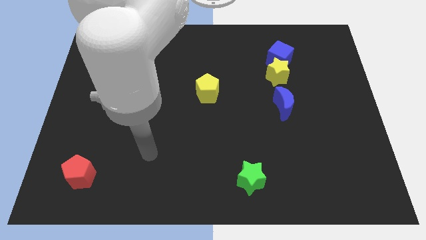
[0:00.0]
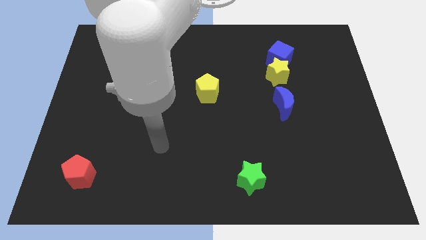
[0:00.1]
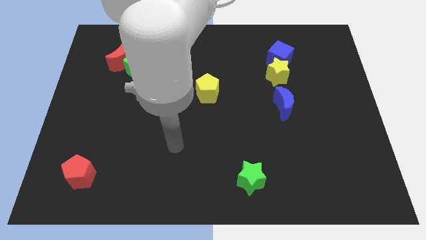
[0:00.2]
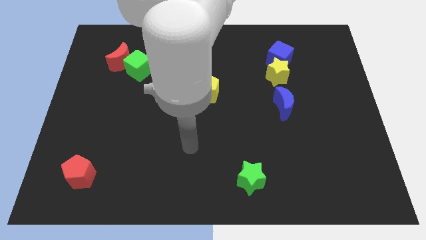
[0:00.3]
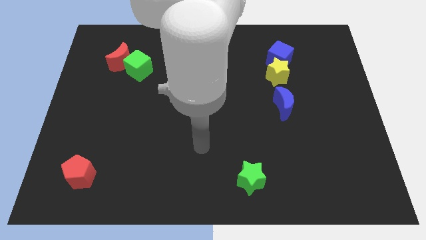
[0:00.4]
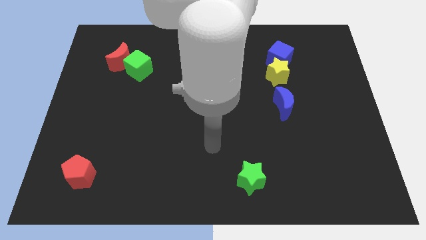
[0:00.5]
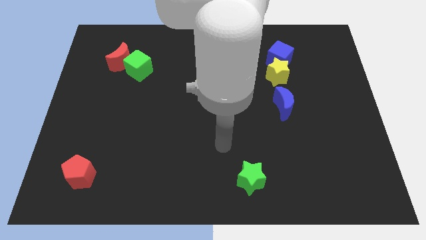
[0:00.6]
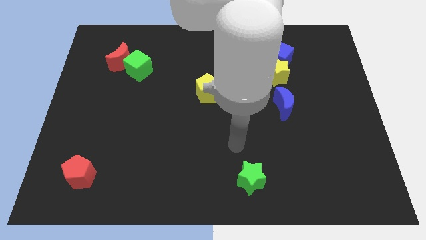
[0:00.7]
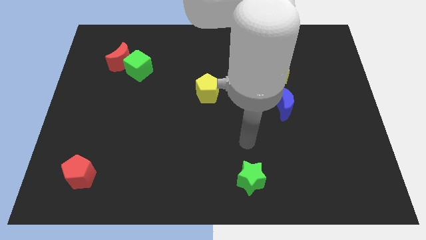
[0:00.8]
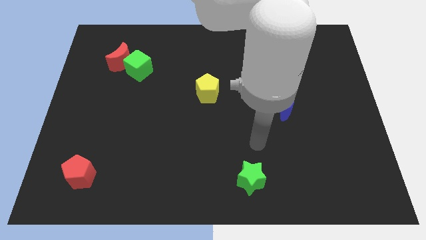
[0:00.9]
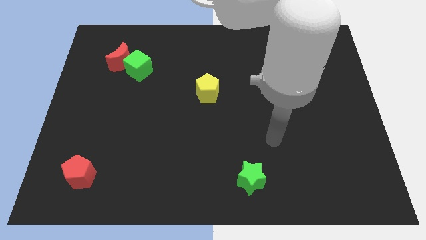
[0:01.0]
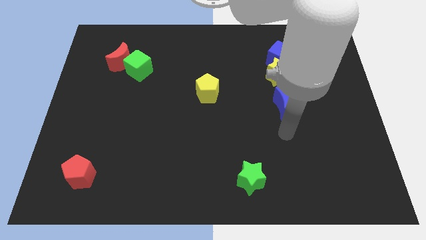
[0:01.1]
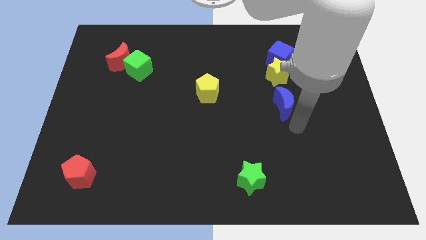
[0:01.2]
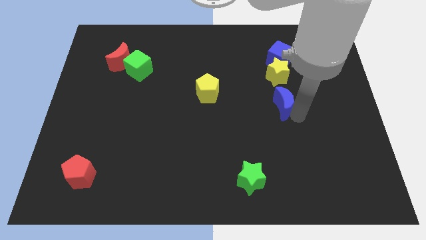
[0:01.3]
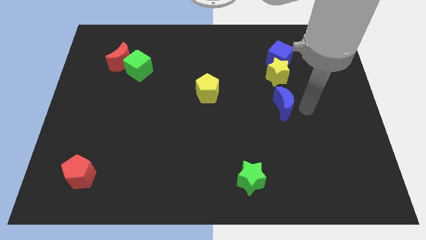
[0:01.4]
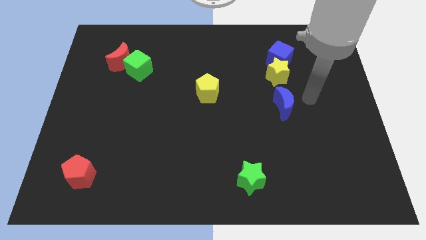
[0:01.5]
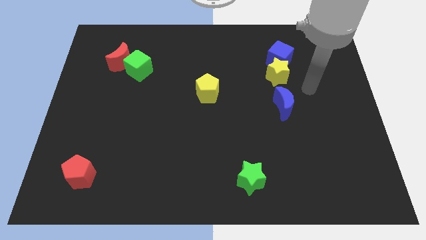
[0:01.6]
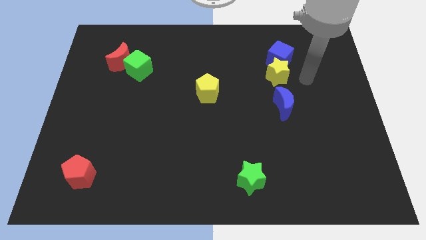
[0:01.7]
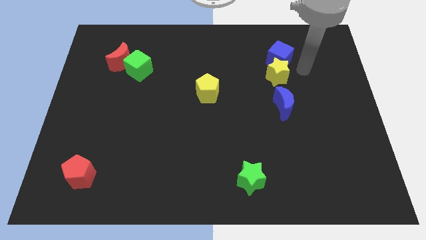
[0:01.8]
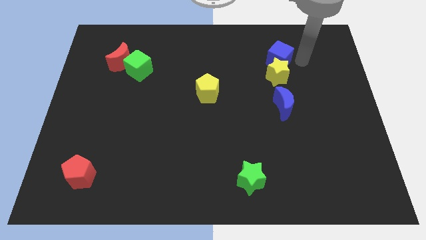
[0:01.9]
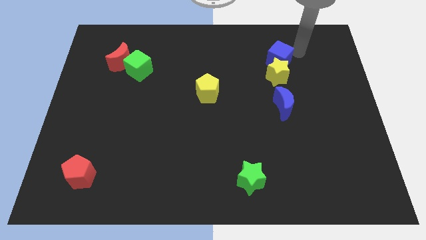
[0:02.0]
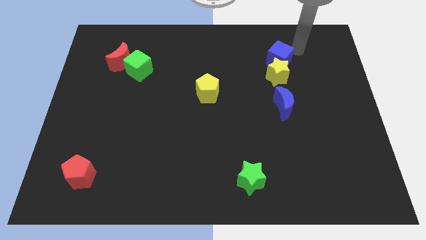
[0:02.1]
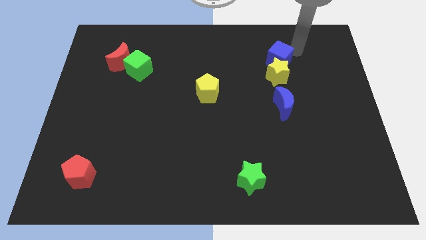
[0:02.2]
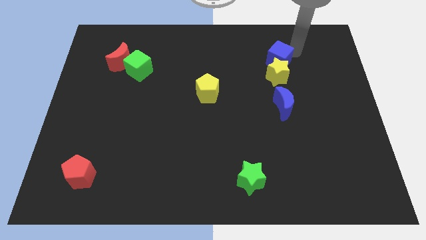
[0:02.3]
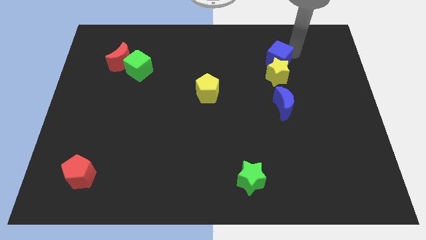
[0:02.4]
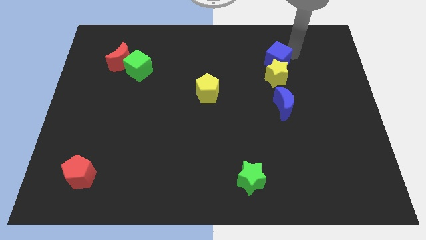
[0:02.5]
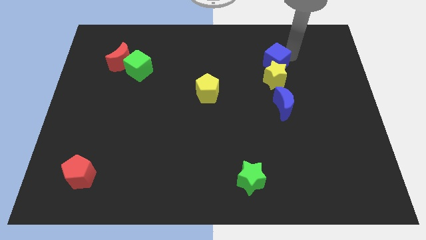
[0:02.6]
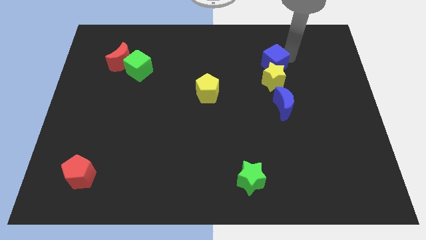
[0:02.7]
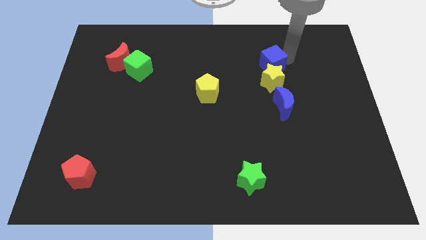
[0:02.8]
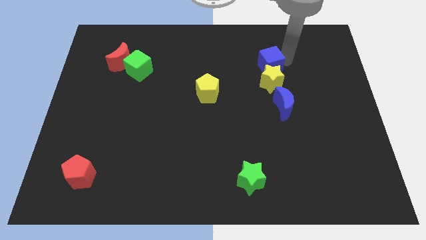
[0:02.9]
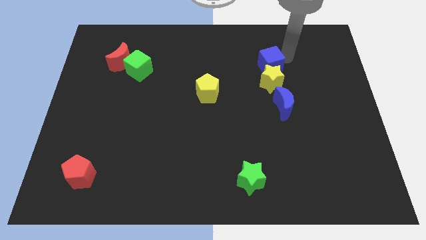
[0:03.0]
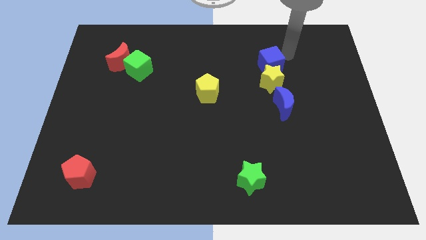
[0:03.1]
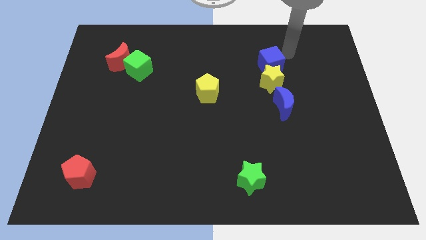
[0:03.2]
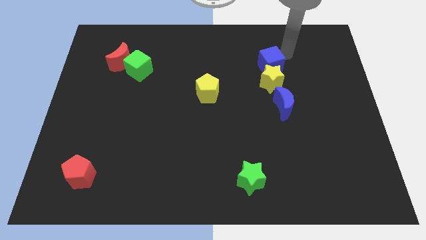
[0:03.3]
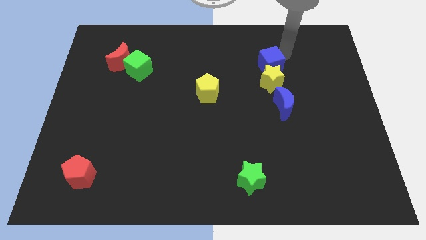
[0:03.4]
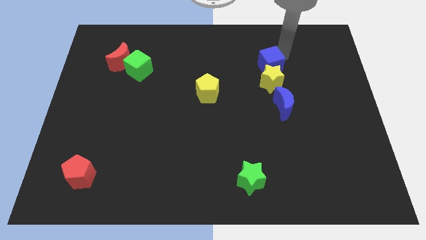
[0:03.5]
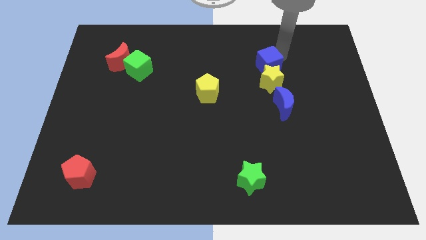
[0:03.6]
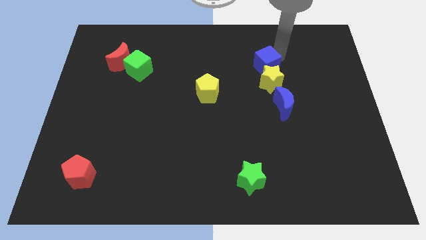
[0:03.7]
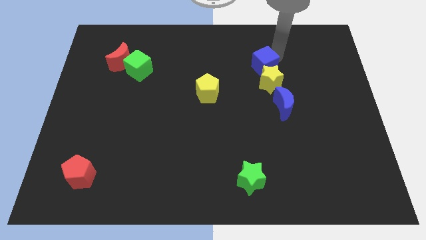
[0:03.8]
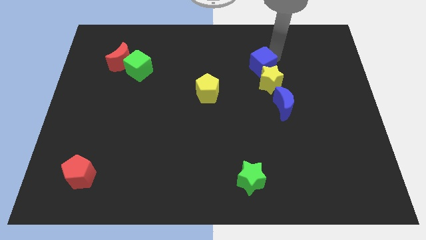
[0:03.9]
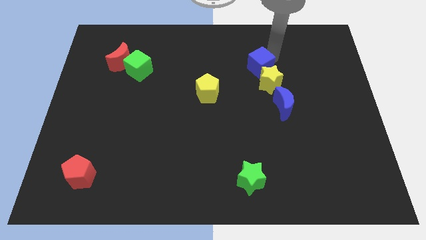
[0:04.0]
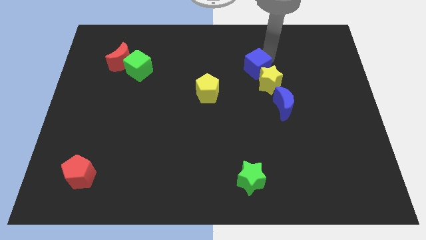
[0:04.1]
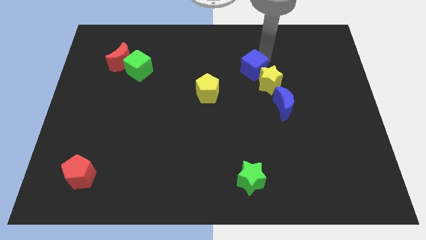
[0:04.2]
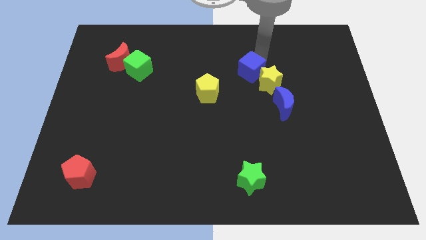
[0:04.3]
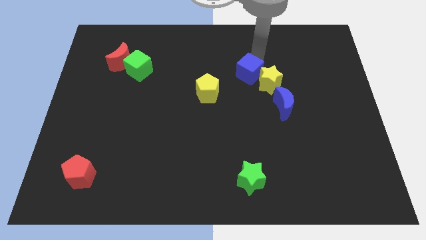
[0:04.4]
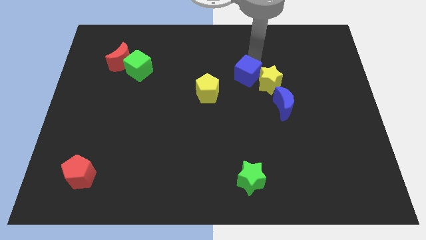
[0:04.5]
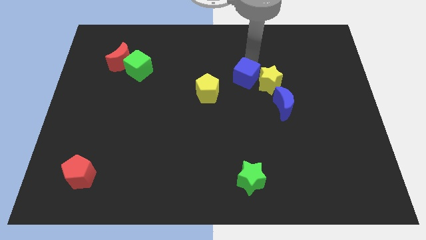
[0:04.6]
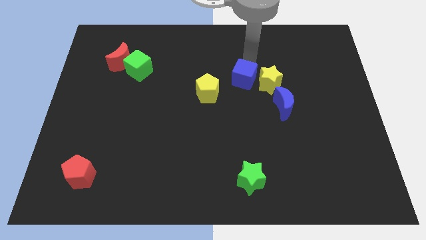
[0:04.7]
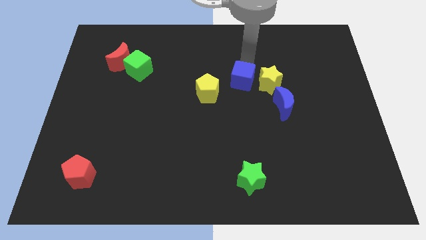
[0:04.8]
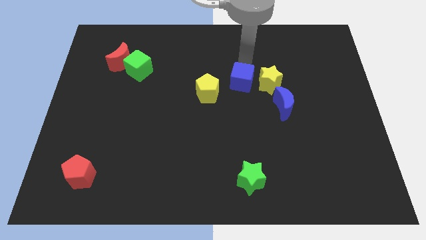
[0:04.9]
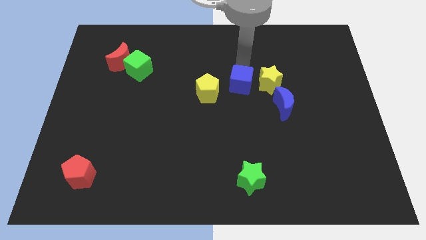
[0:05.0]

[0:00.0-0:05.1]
push the blue cube diagonally down and to the left of the yellow star

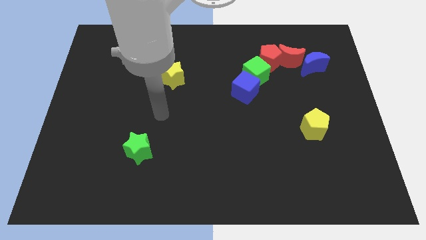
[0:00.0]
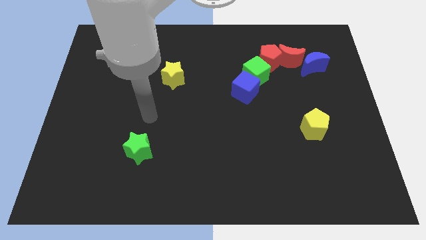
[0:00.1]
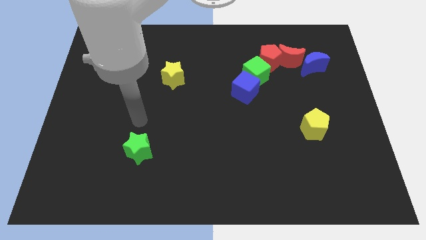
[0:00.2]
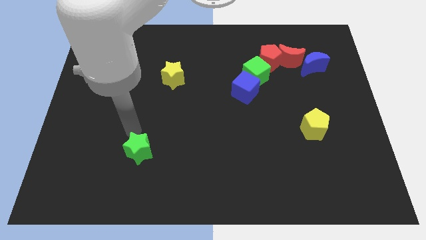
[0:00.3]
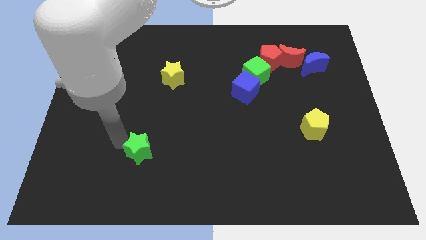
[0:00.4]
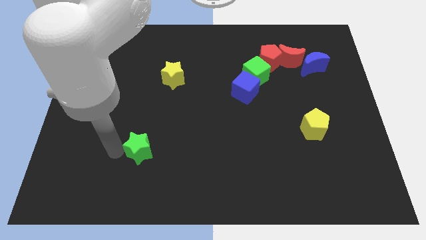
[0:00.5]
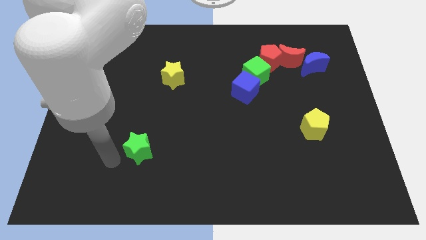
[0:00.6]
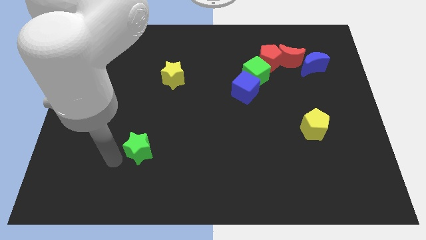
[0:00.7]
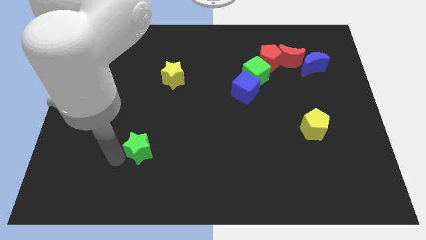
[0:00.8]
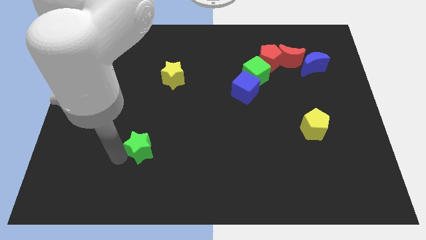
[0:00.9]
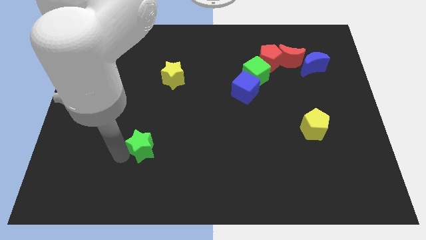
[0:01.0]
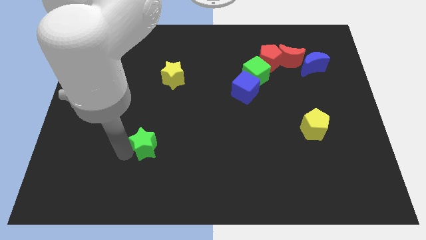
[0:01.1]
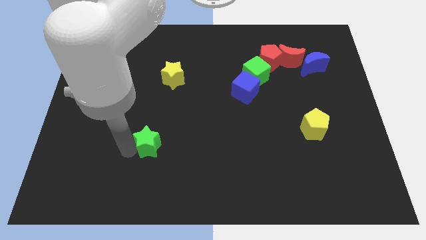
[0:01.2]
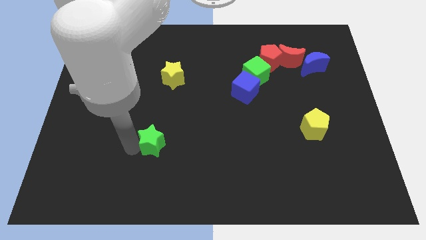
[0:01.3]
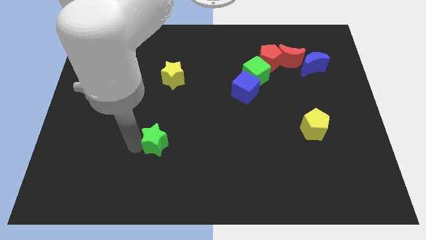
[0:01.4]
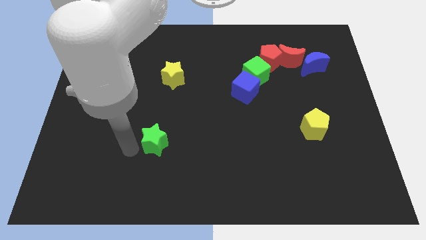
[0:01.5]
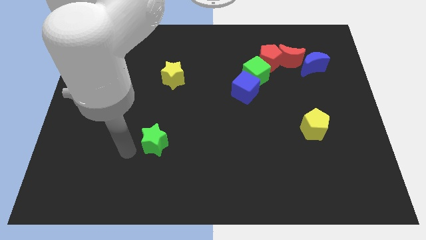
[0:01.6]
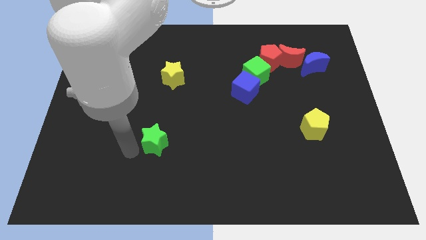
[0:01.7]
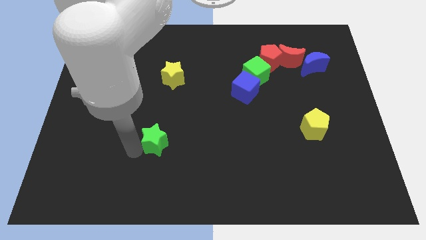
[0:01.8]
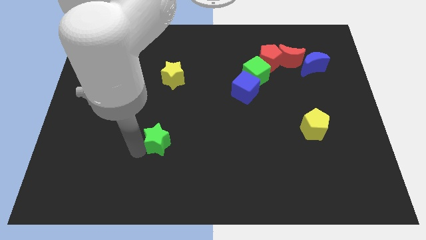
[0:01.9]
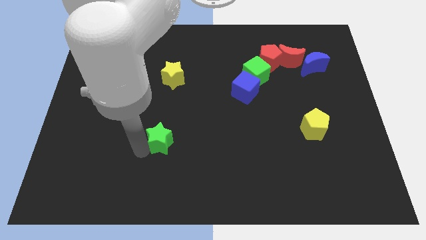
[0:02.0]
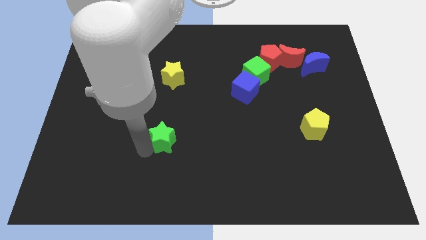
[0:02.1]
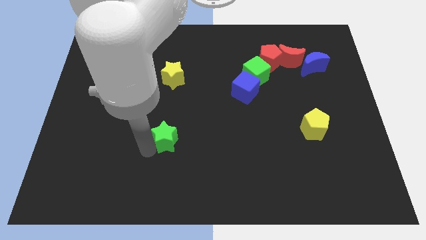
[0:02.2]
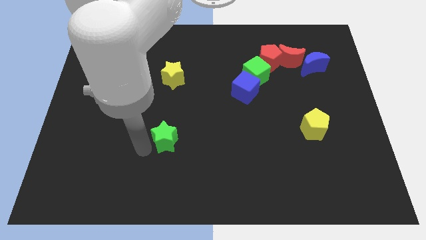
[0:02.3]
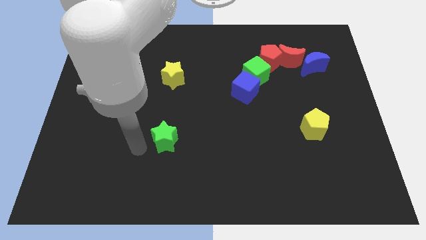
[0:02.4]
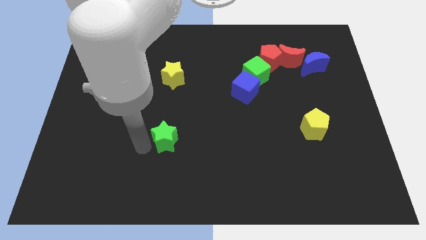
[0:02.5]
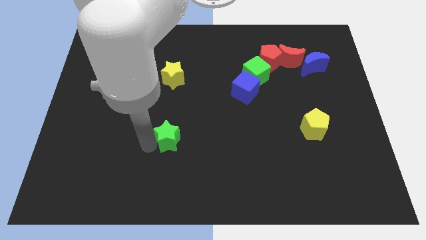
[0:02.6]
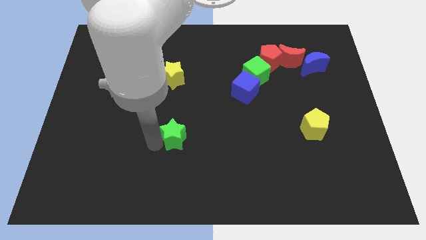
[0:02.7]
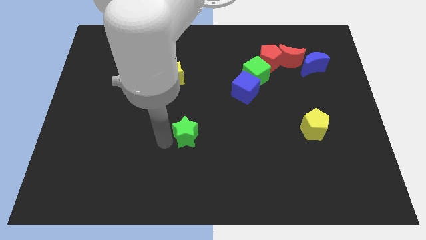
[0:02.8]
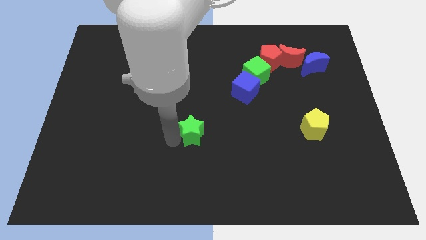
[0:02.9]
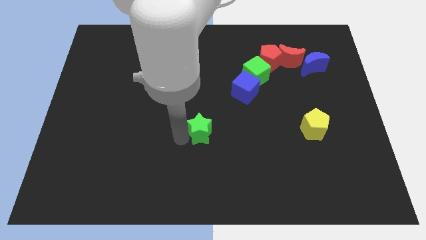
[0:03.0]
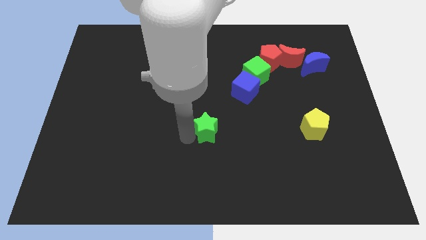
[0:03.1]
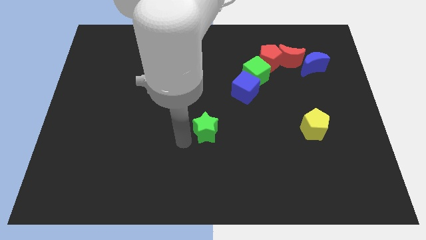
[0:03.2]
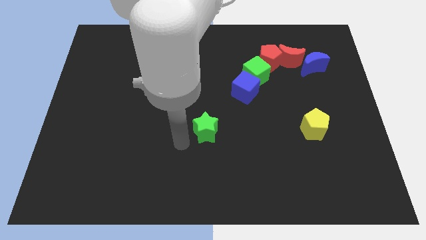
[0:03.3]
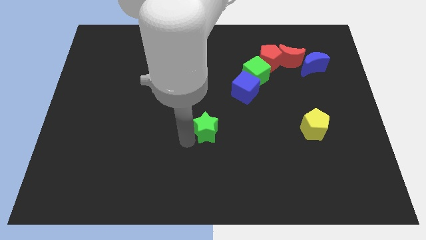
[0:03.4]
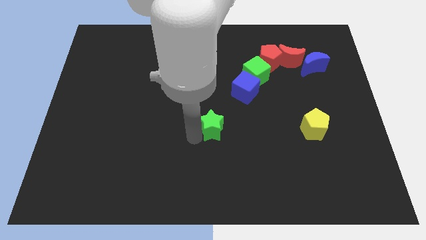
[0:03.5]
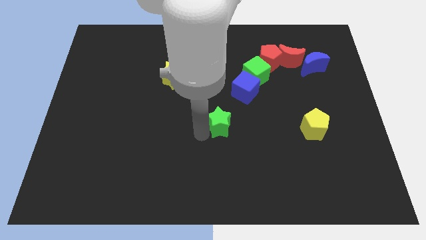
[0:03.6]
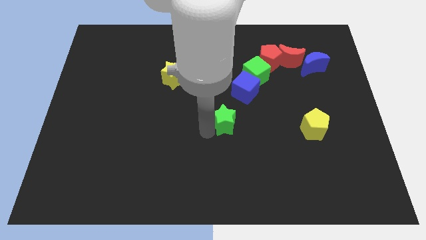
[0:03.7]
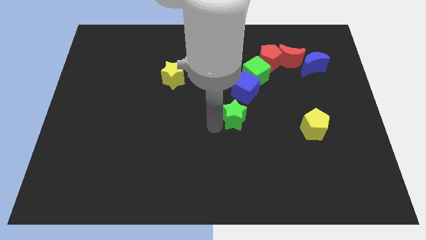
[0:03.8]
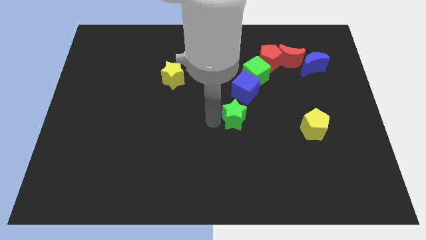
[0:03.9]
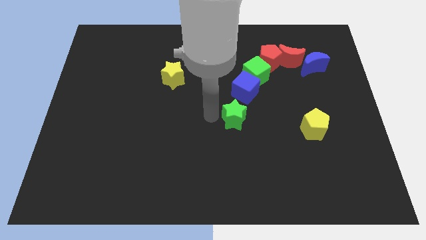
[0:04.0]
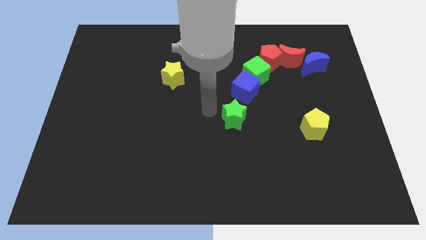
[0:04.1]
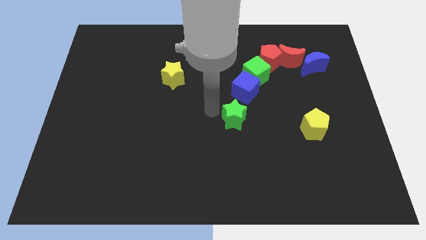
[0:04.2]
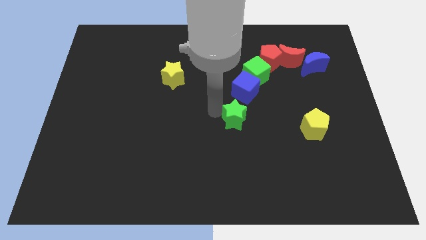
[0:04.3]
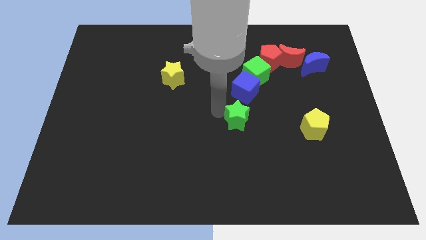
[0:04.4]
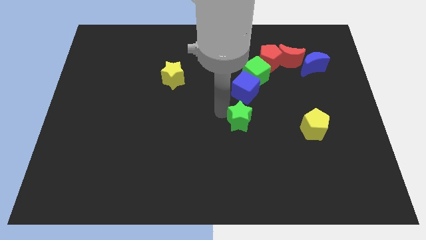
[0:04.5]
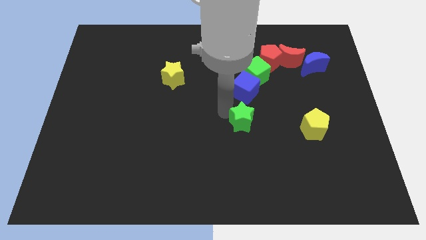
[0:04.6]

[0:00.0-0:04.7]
push the green star just left of the yellow pentagon
